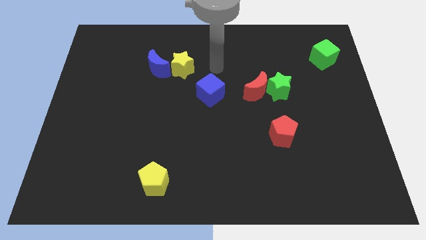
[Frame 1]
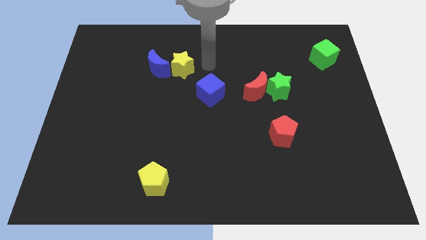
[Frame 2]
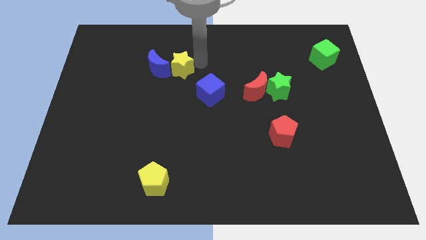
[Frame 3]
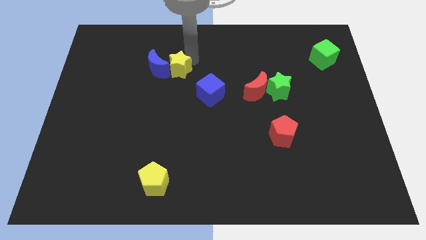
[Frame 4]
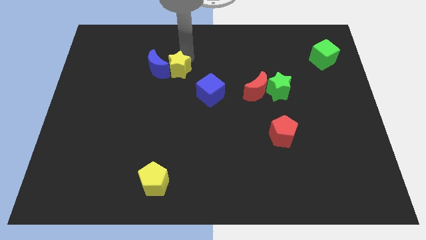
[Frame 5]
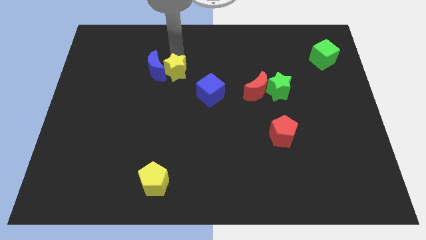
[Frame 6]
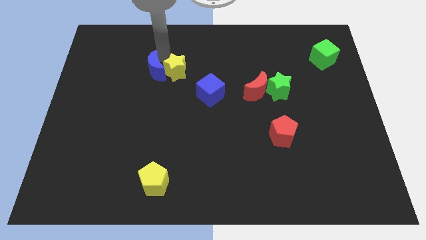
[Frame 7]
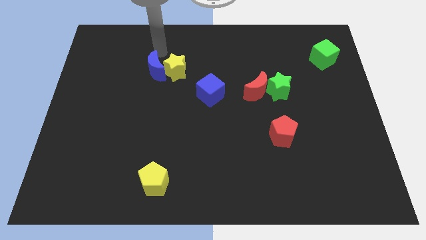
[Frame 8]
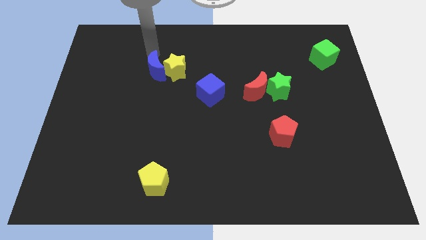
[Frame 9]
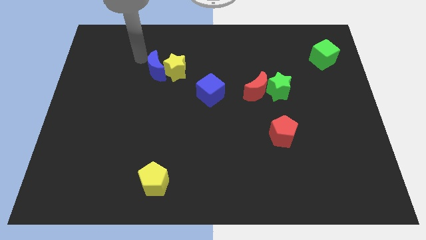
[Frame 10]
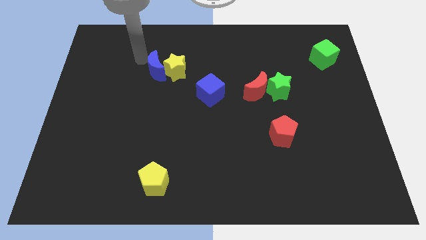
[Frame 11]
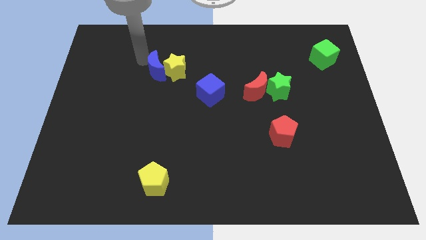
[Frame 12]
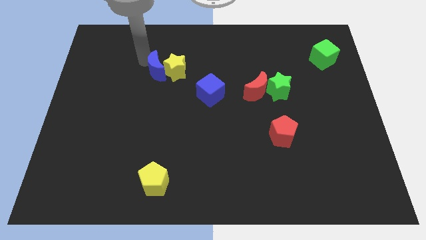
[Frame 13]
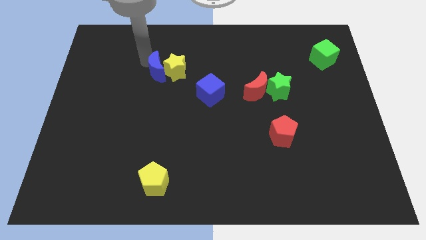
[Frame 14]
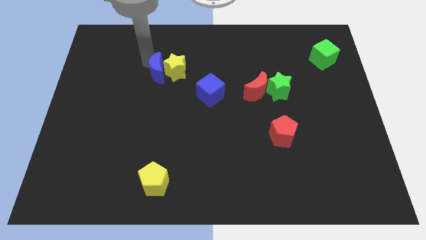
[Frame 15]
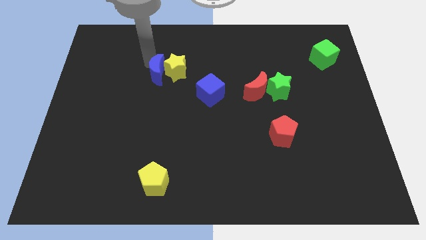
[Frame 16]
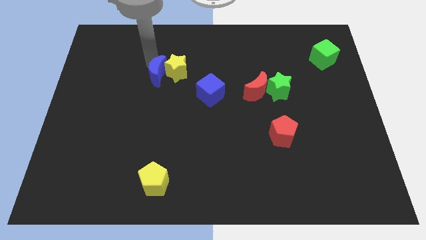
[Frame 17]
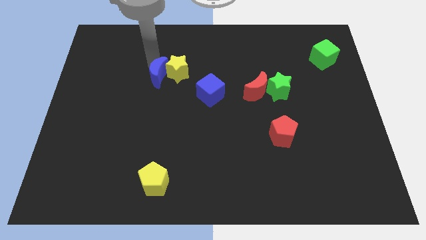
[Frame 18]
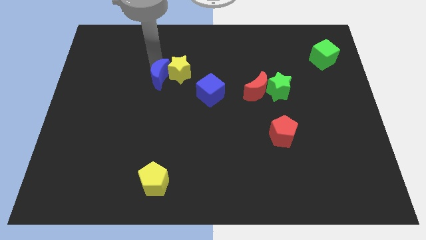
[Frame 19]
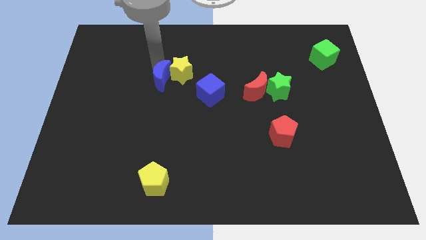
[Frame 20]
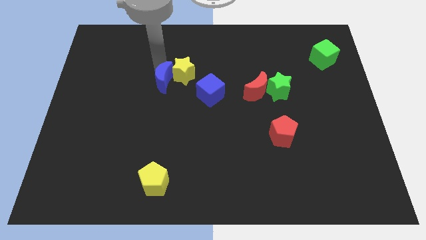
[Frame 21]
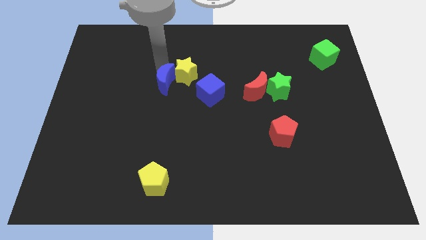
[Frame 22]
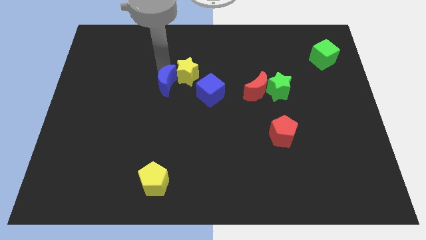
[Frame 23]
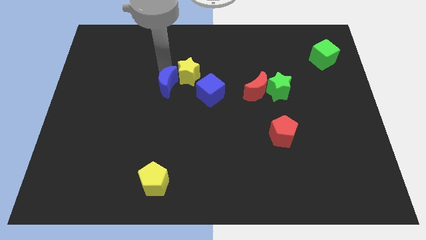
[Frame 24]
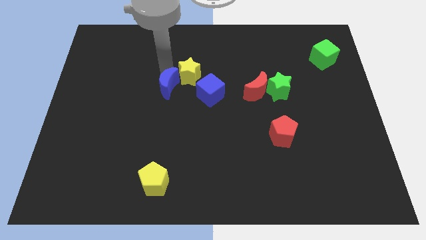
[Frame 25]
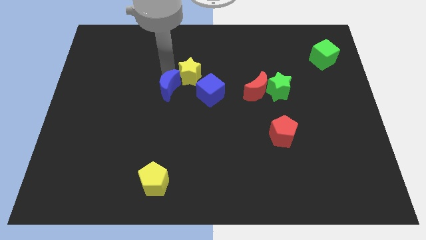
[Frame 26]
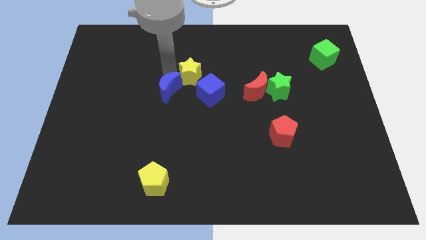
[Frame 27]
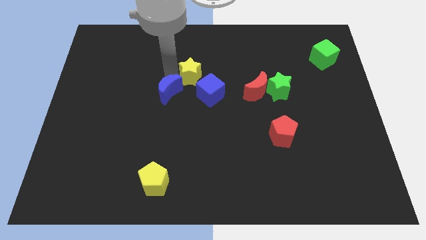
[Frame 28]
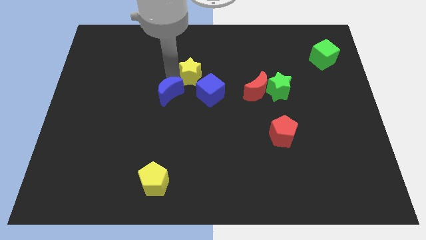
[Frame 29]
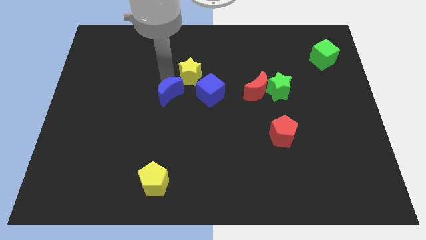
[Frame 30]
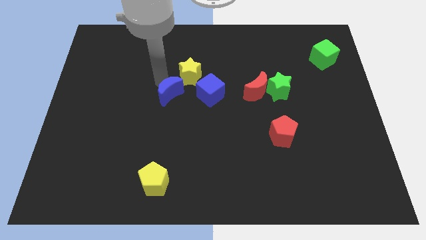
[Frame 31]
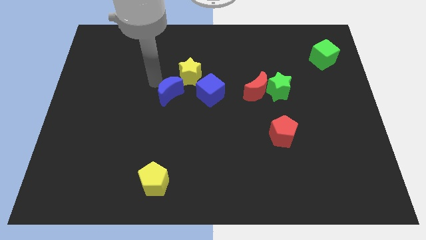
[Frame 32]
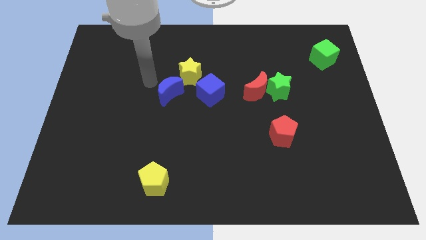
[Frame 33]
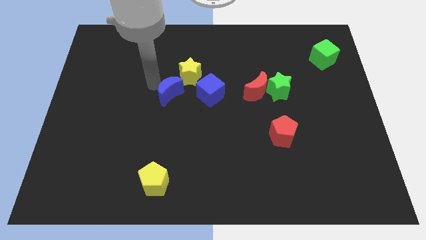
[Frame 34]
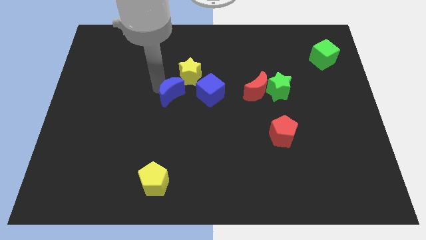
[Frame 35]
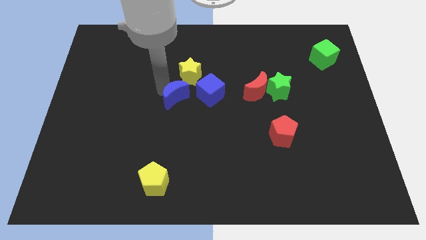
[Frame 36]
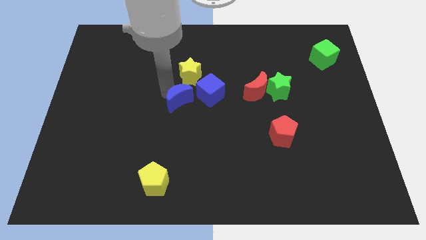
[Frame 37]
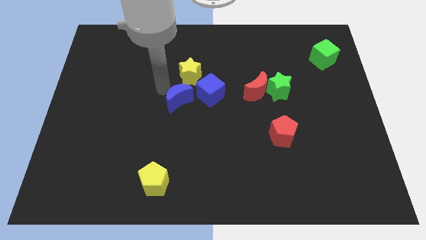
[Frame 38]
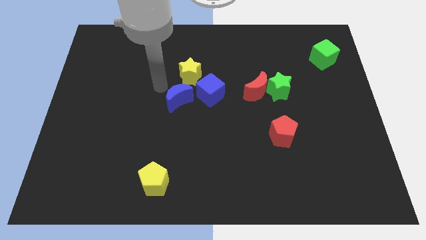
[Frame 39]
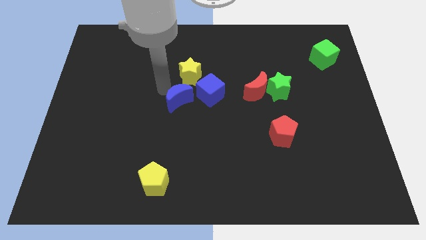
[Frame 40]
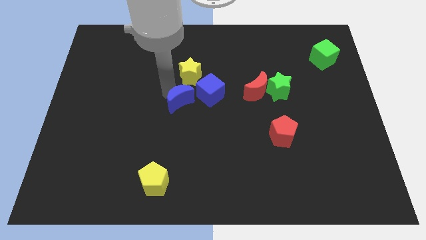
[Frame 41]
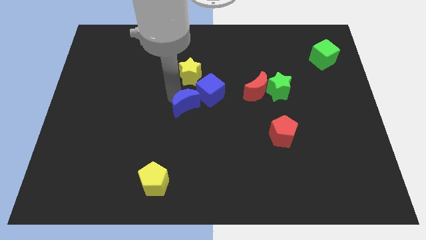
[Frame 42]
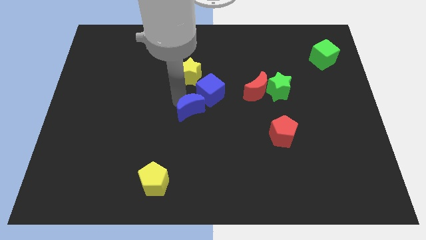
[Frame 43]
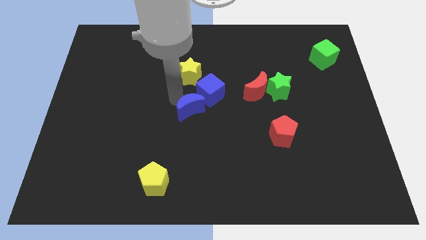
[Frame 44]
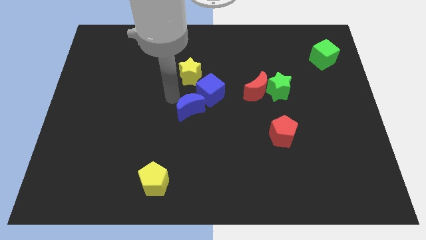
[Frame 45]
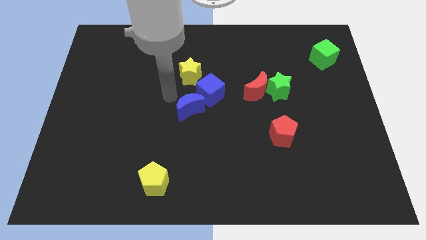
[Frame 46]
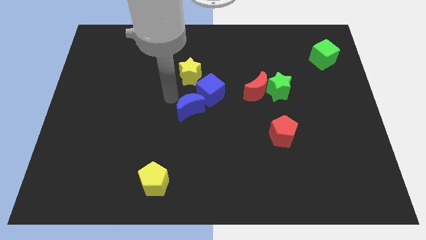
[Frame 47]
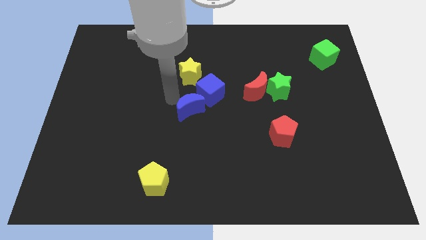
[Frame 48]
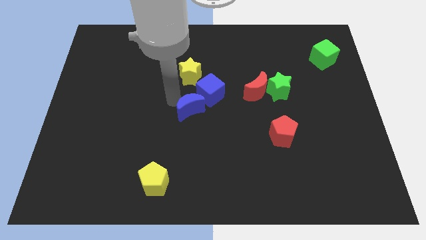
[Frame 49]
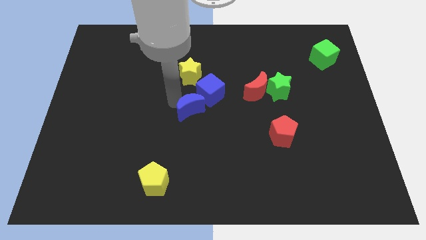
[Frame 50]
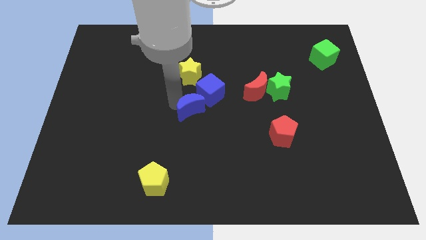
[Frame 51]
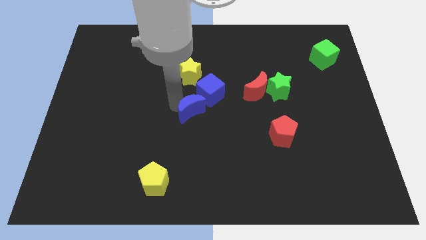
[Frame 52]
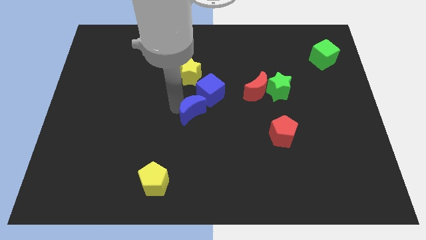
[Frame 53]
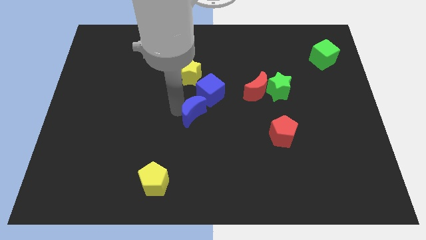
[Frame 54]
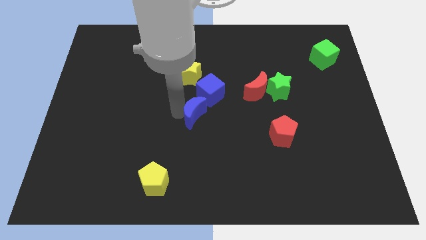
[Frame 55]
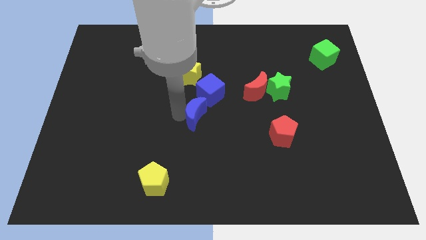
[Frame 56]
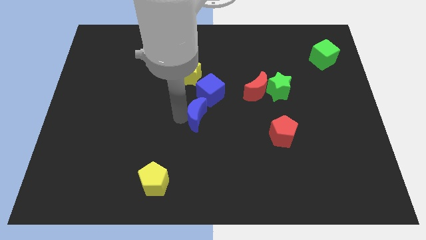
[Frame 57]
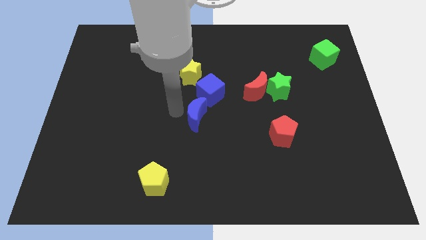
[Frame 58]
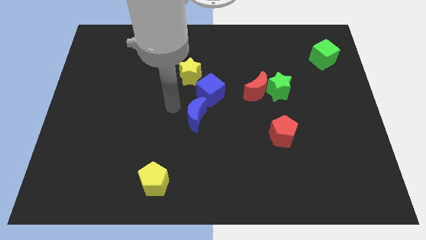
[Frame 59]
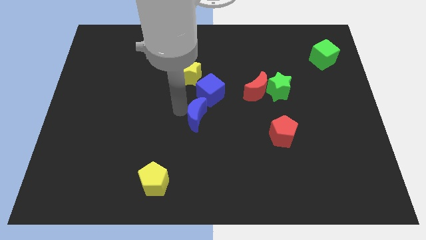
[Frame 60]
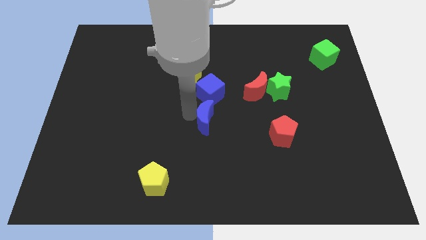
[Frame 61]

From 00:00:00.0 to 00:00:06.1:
push the blue moon downwards and to the right diagonally

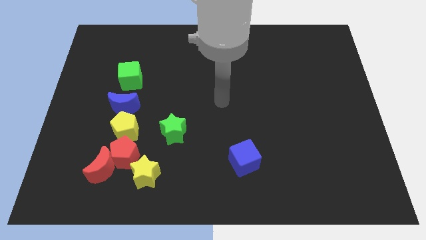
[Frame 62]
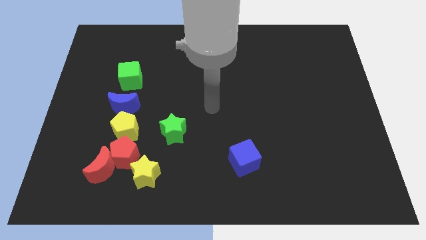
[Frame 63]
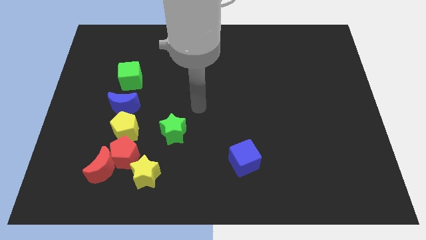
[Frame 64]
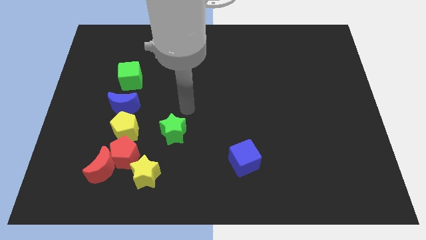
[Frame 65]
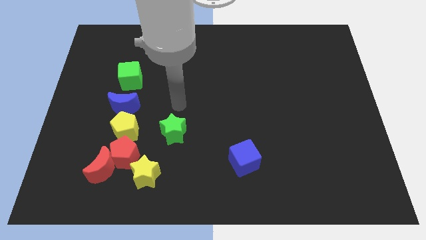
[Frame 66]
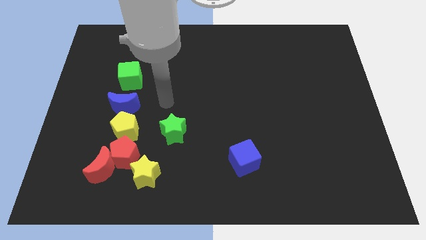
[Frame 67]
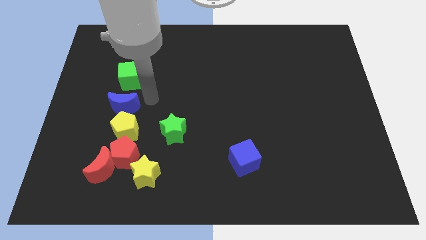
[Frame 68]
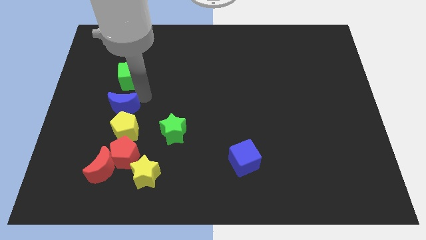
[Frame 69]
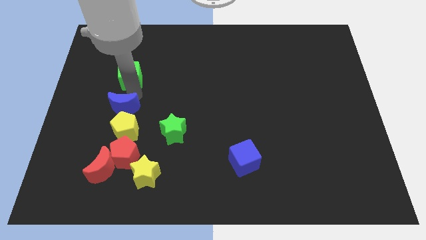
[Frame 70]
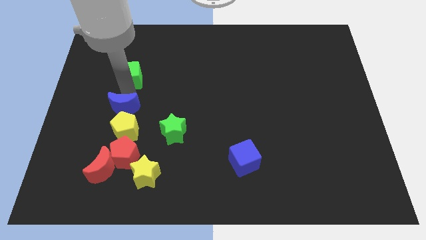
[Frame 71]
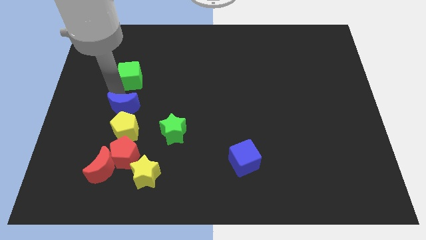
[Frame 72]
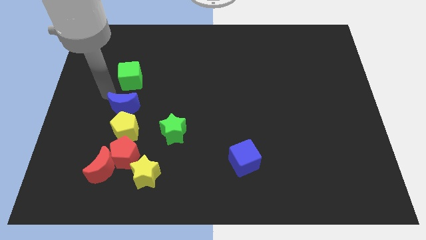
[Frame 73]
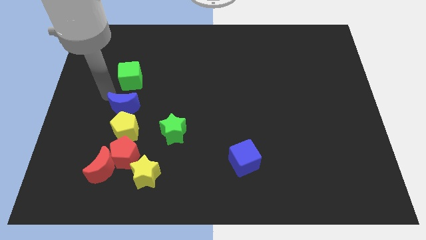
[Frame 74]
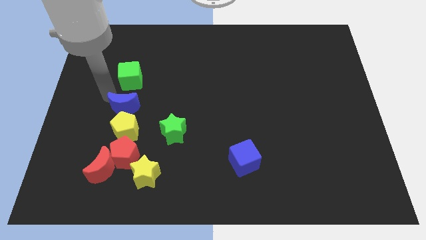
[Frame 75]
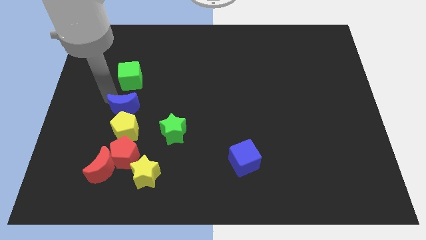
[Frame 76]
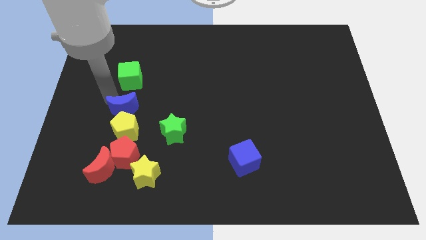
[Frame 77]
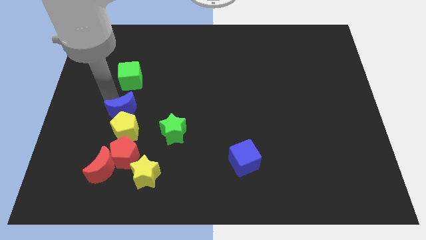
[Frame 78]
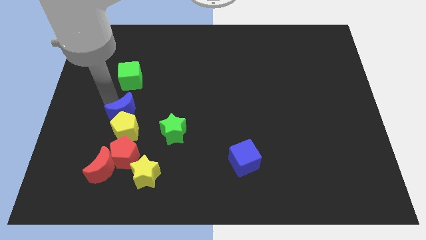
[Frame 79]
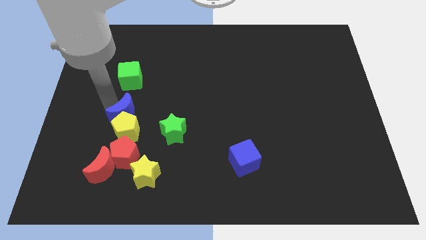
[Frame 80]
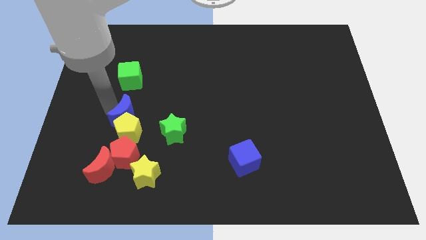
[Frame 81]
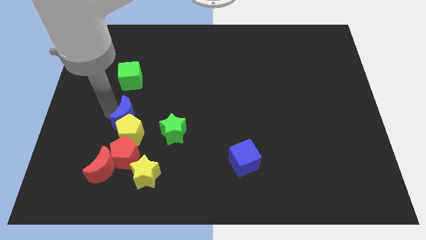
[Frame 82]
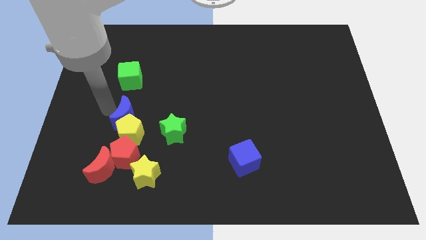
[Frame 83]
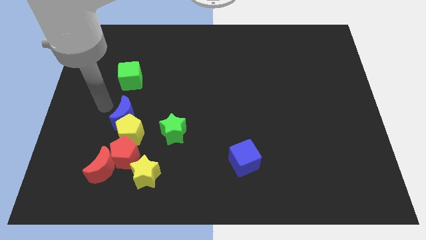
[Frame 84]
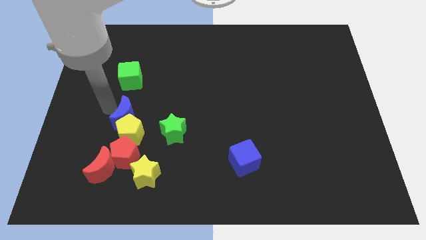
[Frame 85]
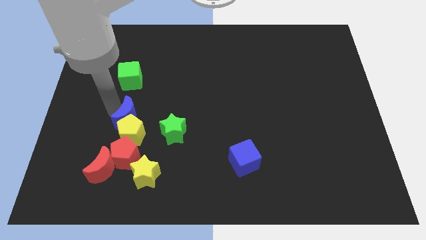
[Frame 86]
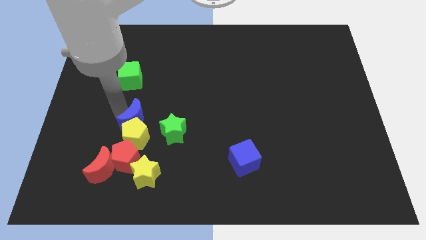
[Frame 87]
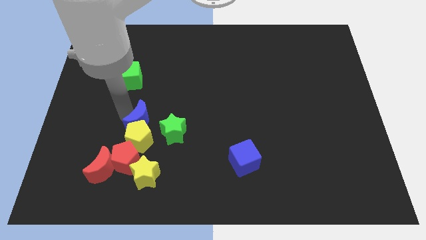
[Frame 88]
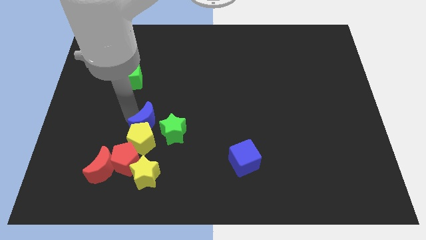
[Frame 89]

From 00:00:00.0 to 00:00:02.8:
slightly move the blue moon downwards and to the right diagonally
